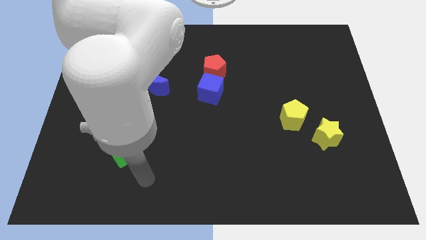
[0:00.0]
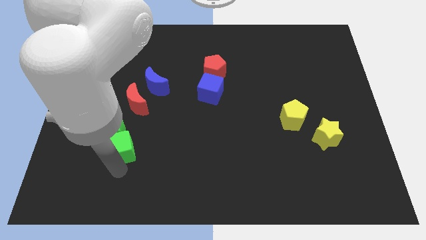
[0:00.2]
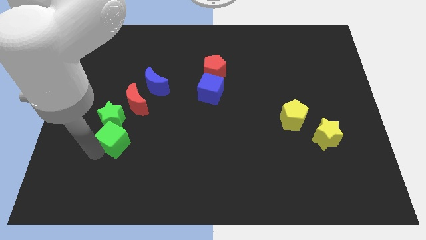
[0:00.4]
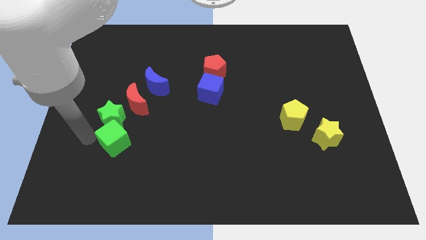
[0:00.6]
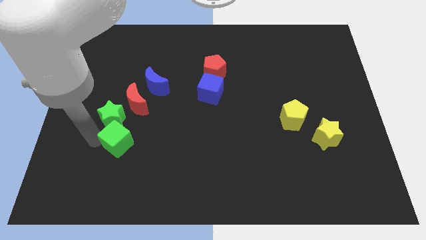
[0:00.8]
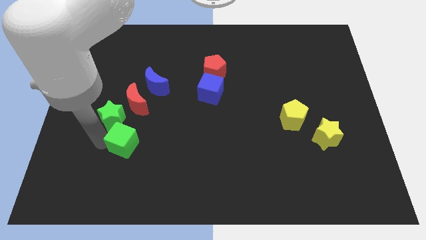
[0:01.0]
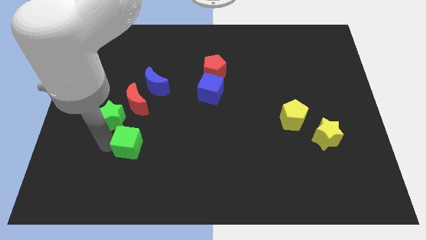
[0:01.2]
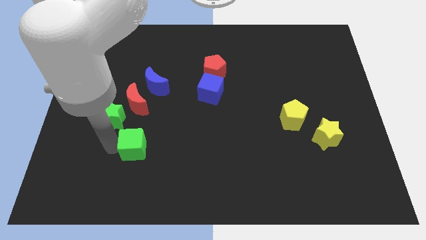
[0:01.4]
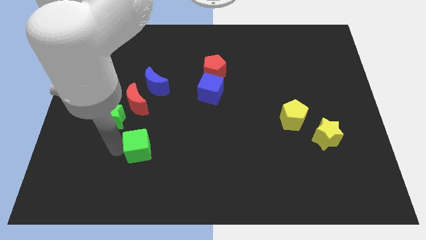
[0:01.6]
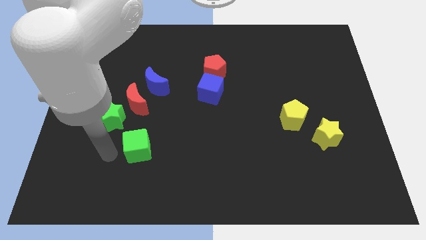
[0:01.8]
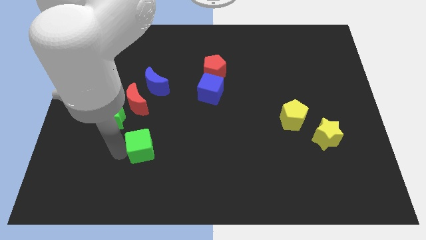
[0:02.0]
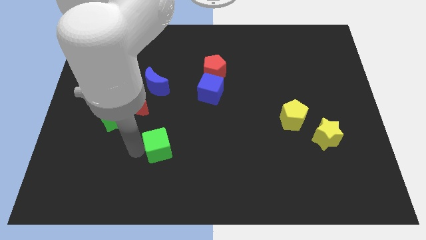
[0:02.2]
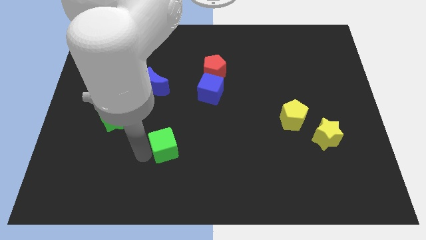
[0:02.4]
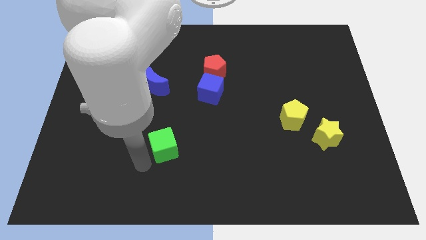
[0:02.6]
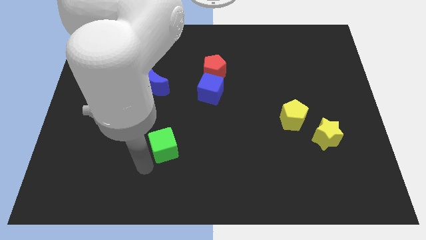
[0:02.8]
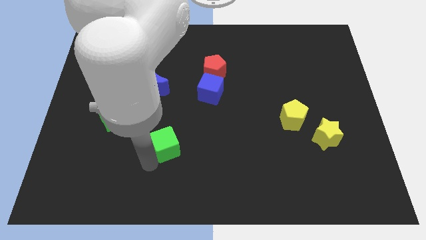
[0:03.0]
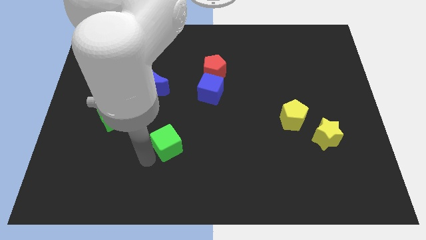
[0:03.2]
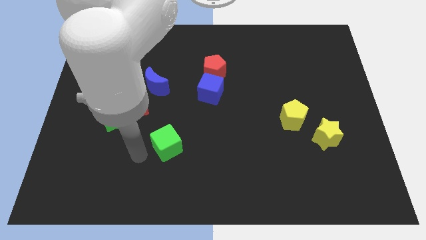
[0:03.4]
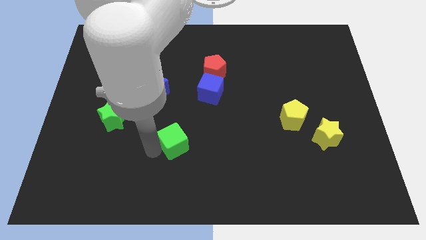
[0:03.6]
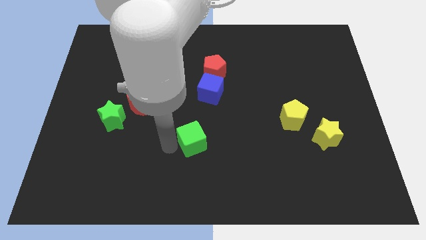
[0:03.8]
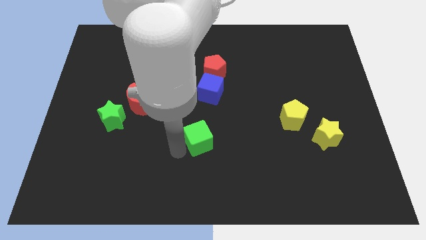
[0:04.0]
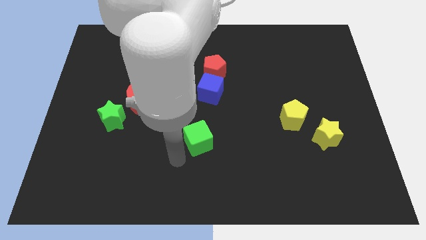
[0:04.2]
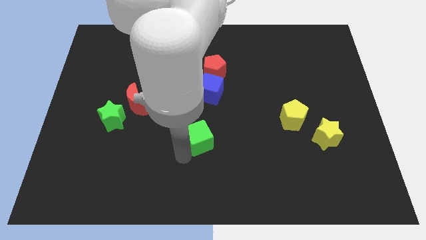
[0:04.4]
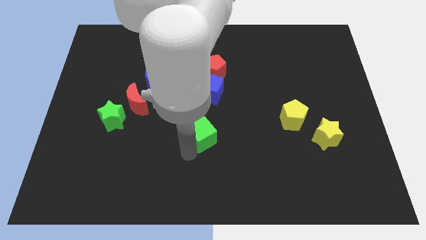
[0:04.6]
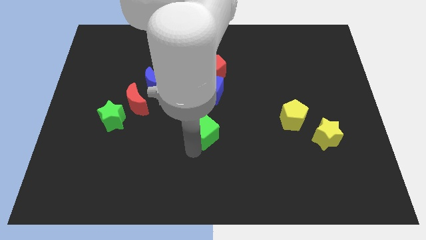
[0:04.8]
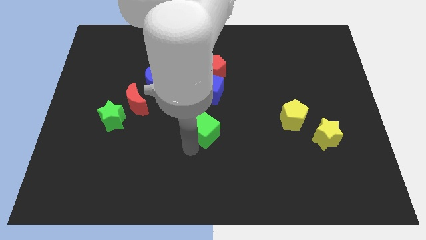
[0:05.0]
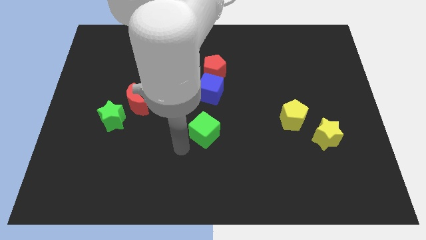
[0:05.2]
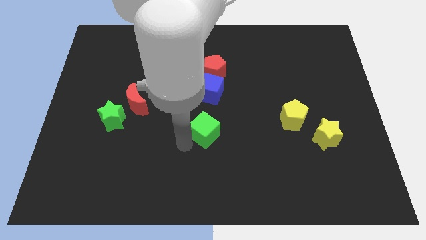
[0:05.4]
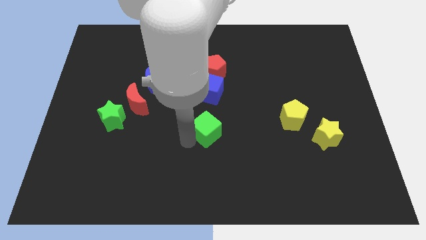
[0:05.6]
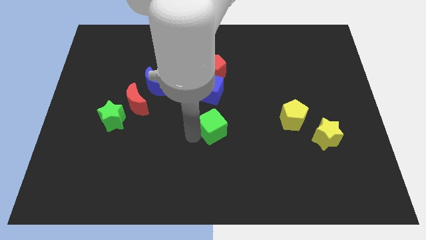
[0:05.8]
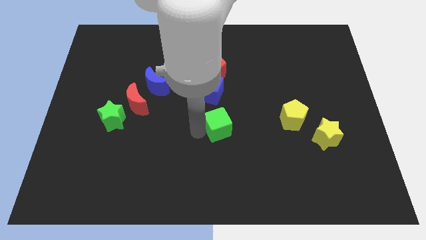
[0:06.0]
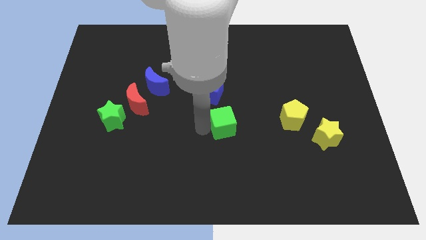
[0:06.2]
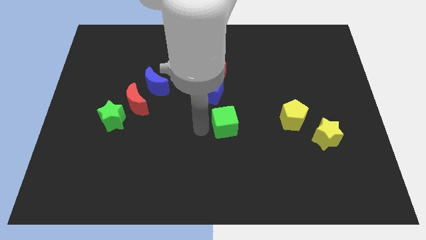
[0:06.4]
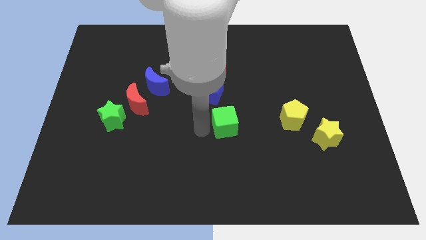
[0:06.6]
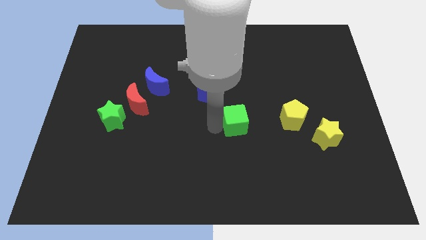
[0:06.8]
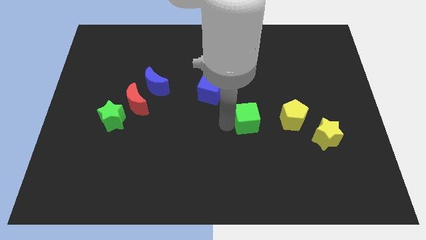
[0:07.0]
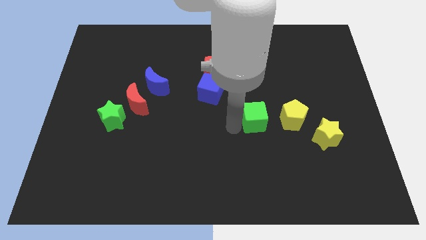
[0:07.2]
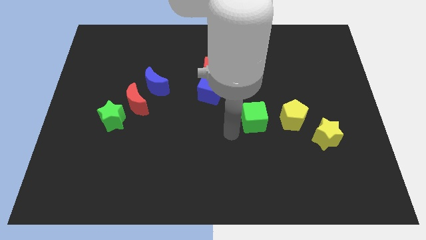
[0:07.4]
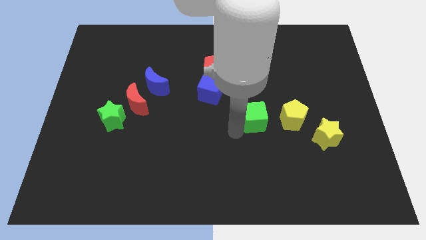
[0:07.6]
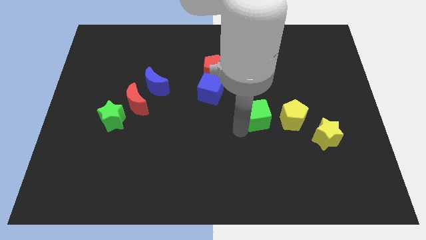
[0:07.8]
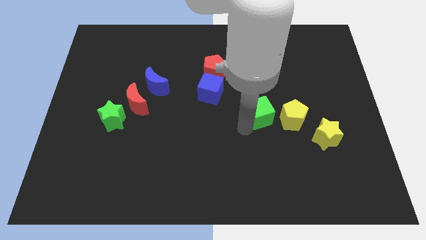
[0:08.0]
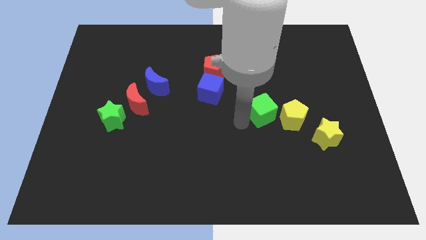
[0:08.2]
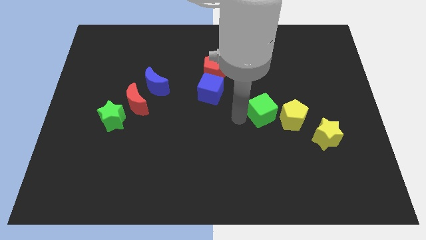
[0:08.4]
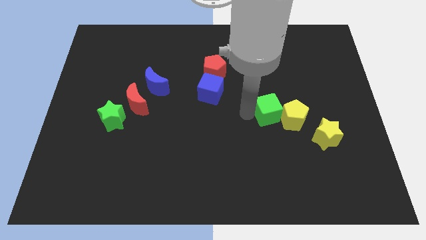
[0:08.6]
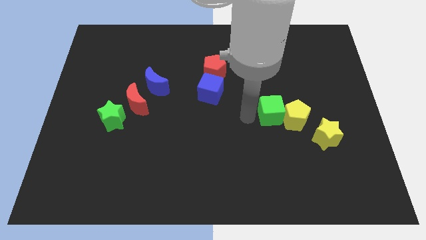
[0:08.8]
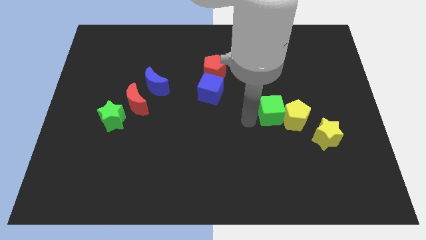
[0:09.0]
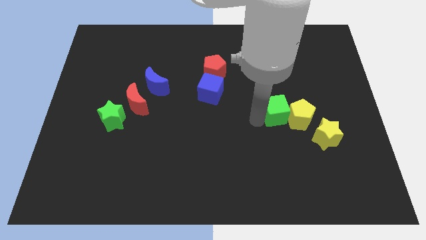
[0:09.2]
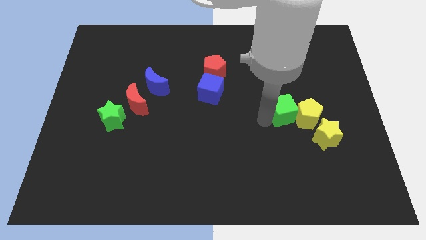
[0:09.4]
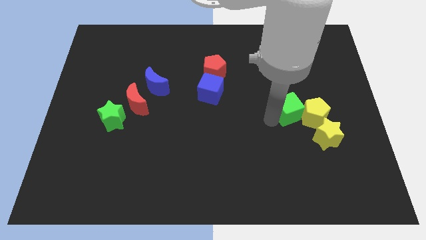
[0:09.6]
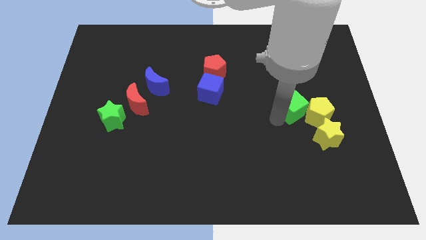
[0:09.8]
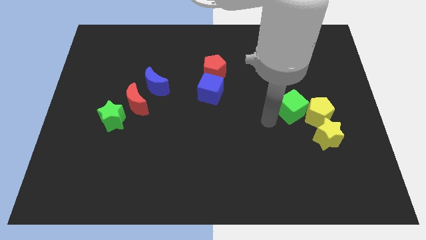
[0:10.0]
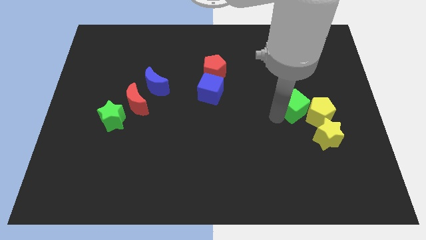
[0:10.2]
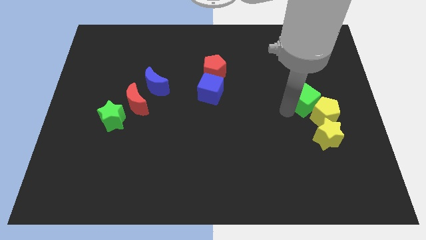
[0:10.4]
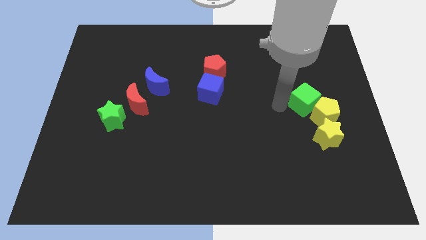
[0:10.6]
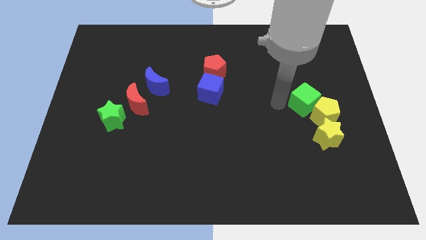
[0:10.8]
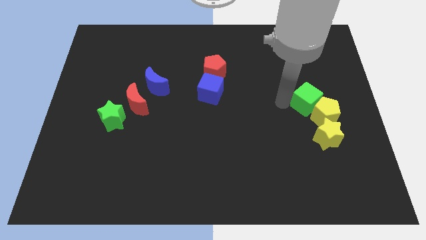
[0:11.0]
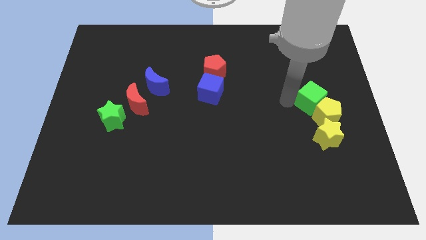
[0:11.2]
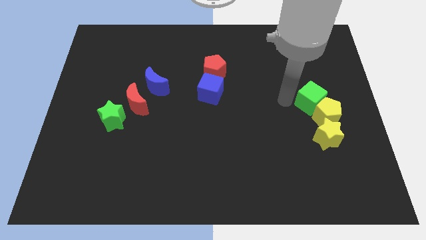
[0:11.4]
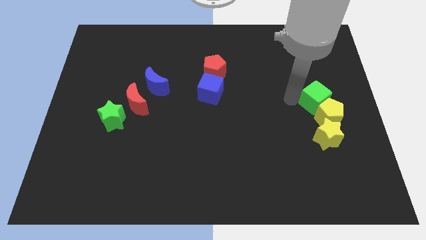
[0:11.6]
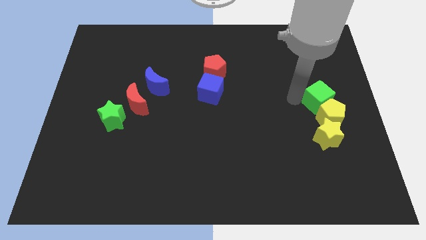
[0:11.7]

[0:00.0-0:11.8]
push the green cube to the right side

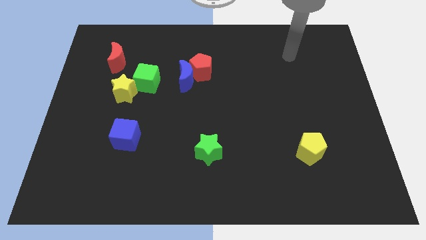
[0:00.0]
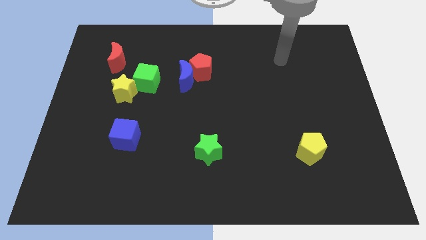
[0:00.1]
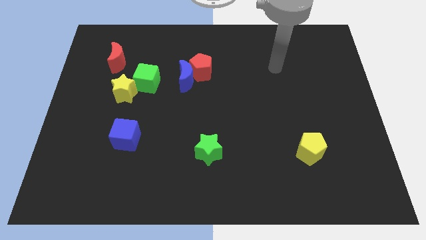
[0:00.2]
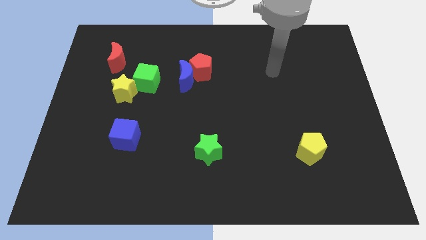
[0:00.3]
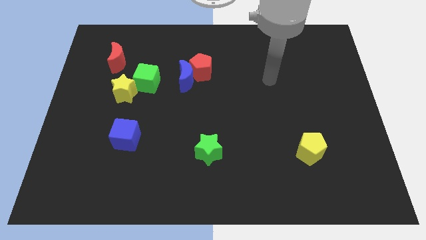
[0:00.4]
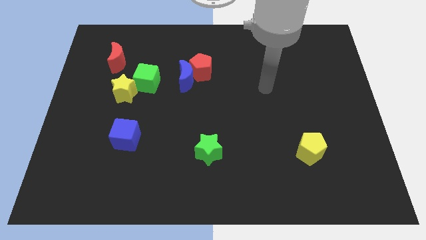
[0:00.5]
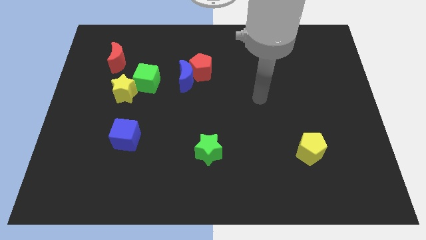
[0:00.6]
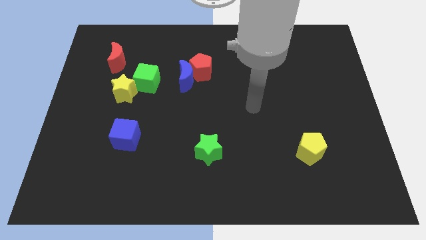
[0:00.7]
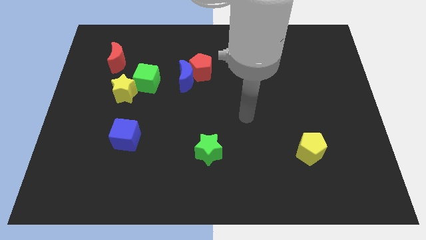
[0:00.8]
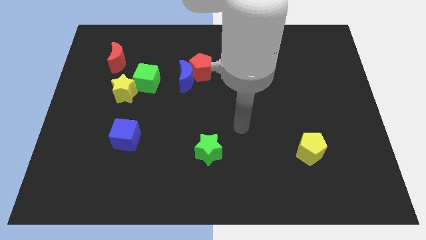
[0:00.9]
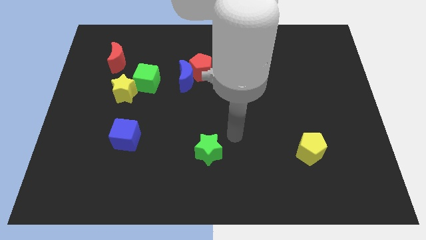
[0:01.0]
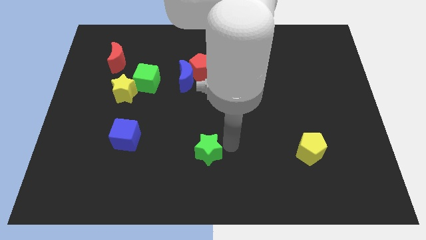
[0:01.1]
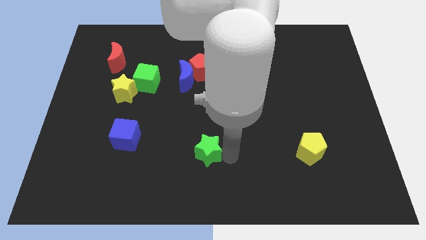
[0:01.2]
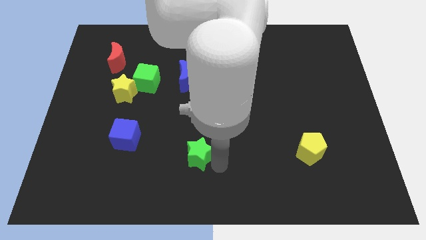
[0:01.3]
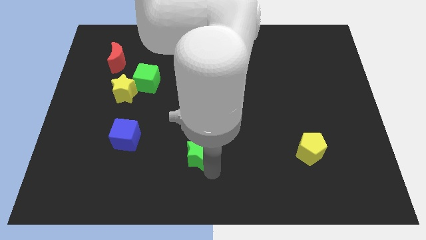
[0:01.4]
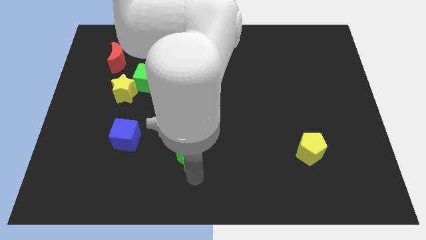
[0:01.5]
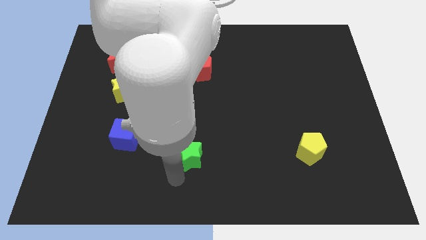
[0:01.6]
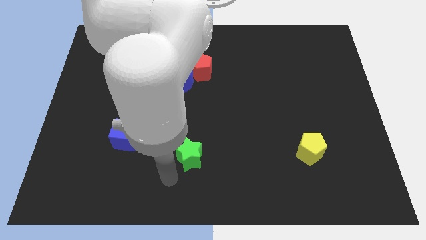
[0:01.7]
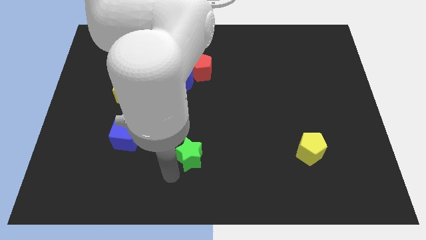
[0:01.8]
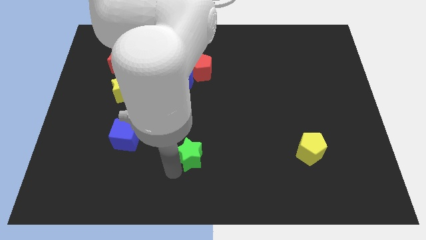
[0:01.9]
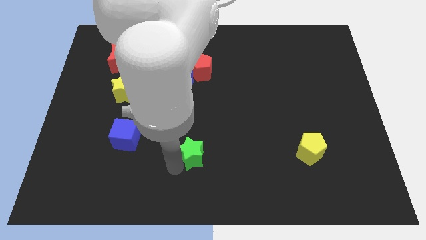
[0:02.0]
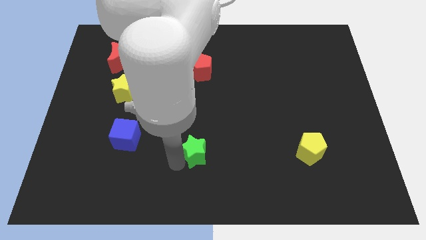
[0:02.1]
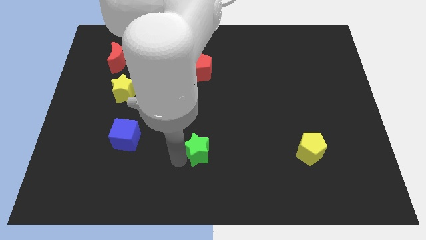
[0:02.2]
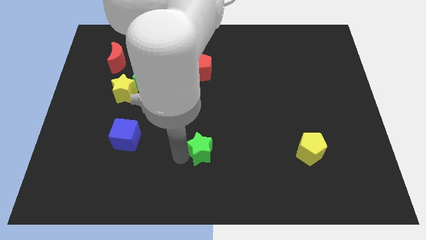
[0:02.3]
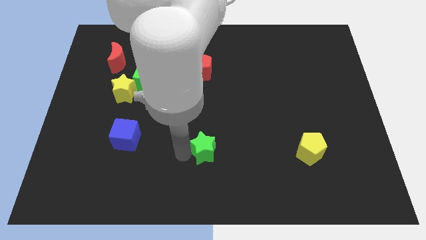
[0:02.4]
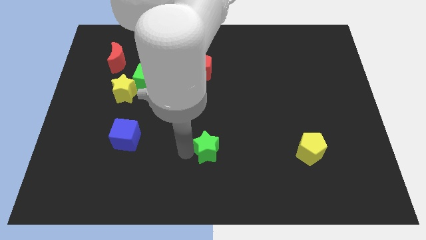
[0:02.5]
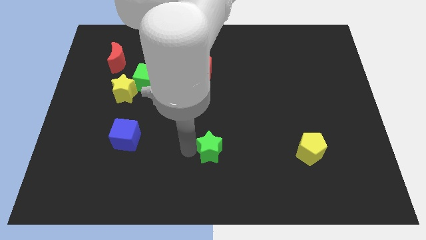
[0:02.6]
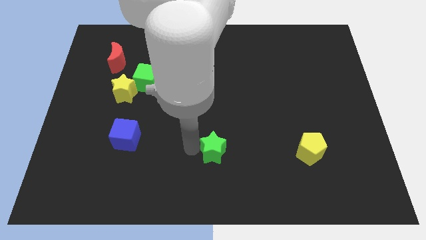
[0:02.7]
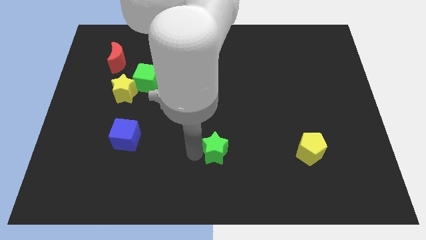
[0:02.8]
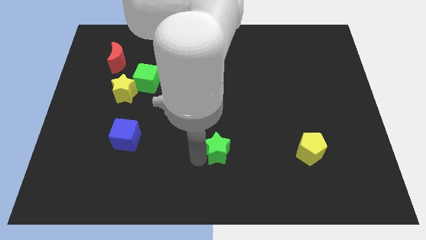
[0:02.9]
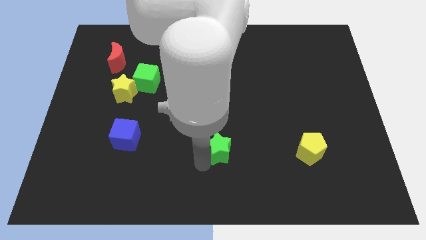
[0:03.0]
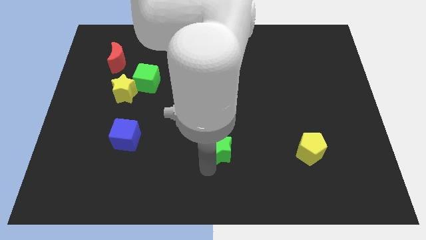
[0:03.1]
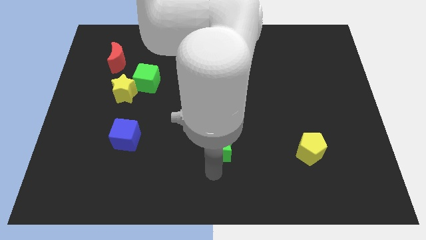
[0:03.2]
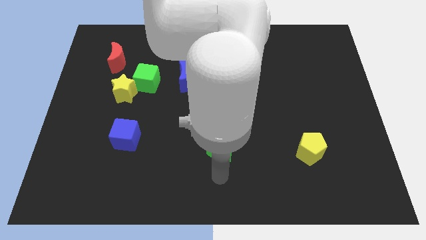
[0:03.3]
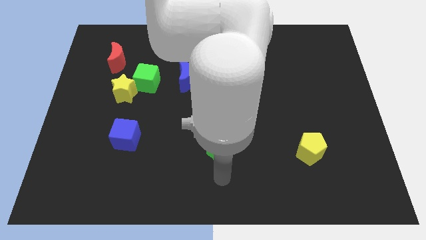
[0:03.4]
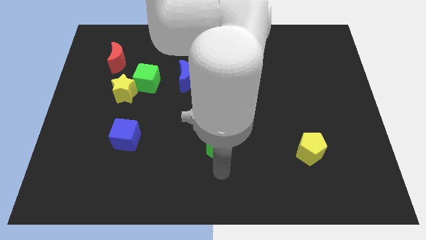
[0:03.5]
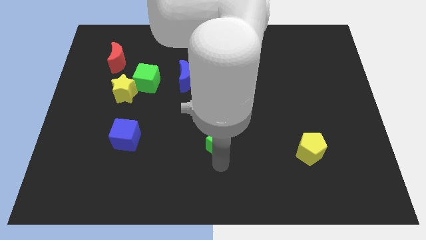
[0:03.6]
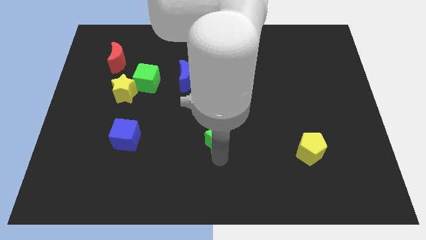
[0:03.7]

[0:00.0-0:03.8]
push the green star to the center
